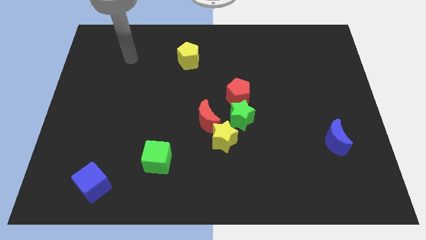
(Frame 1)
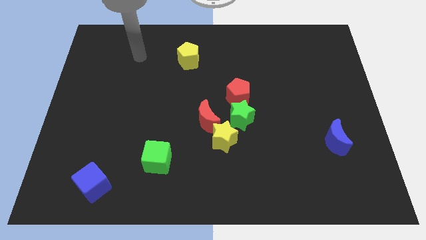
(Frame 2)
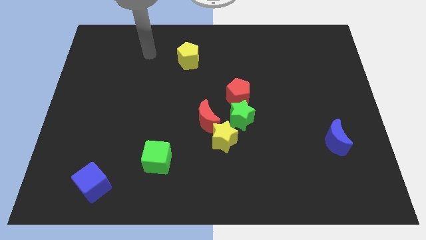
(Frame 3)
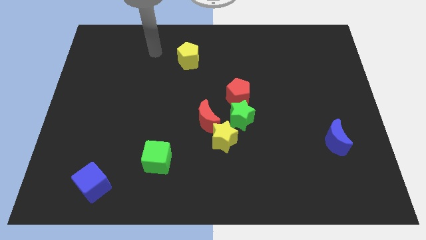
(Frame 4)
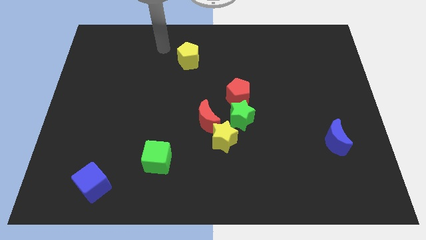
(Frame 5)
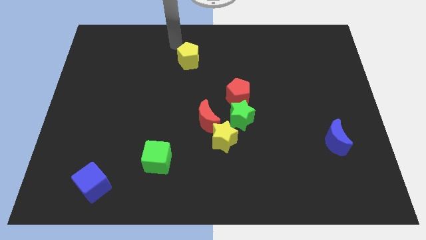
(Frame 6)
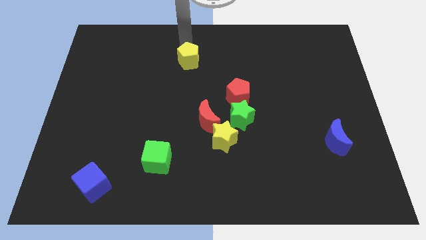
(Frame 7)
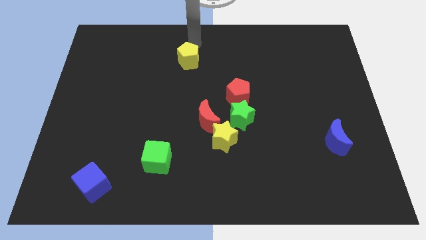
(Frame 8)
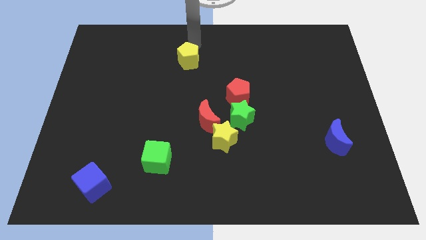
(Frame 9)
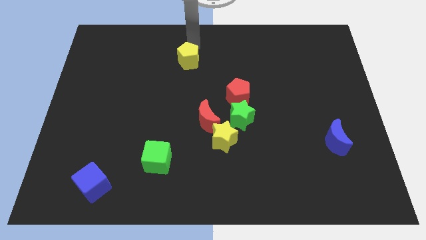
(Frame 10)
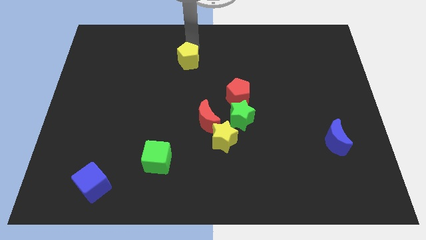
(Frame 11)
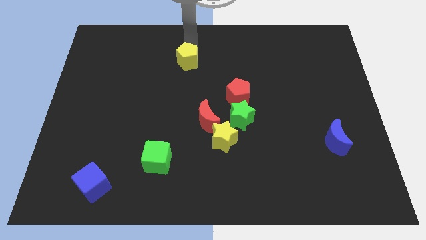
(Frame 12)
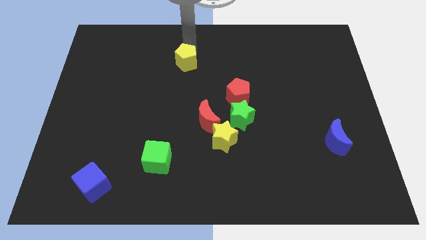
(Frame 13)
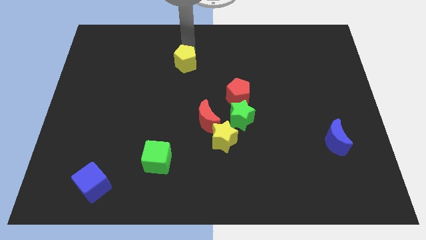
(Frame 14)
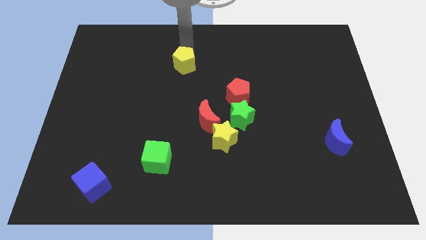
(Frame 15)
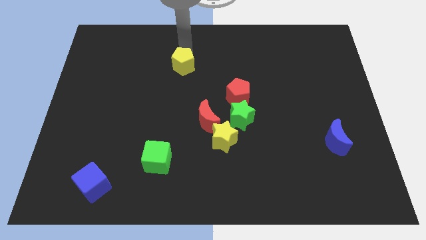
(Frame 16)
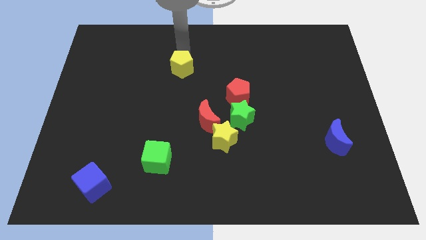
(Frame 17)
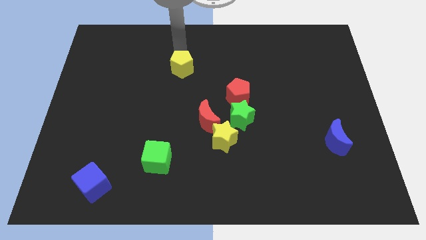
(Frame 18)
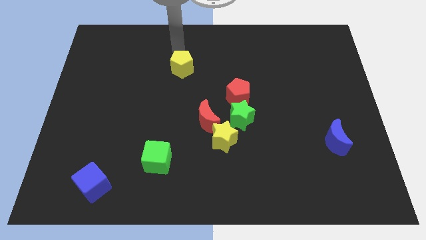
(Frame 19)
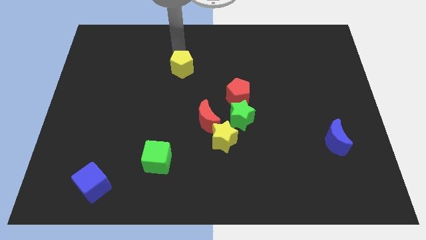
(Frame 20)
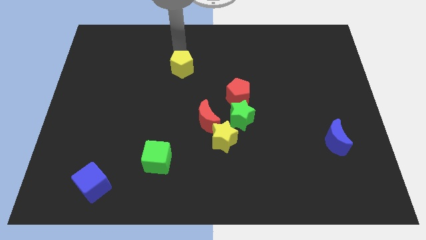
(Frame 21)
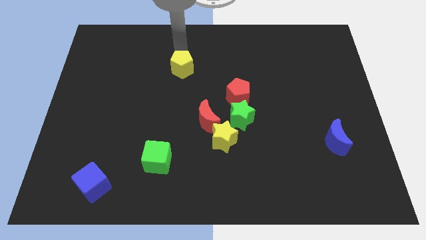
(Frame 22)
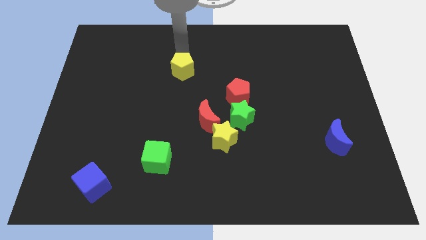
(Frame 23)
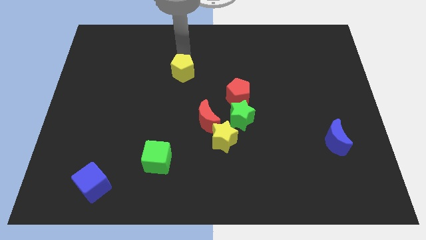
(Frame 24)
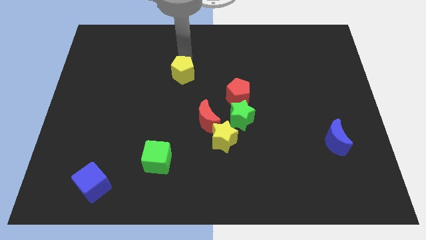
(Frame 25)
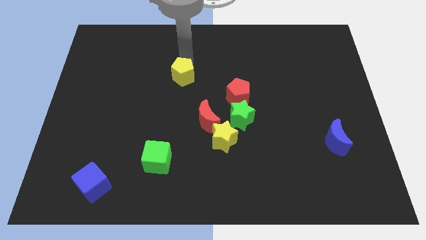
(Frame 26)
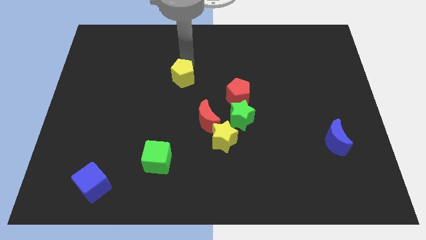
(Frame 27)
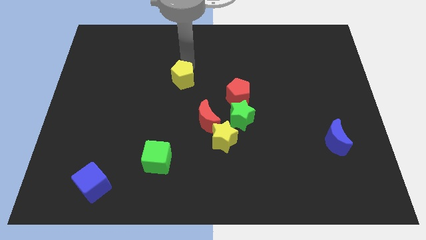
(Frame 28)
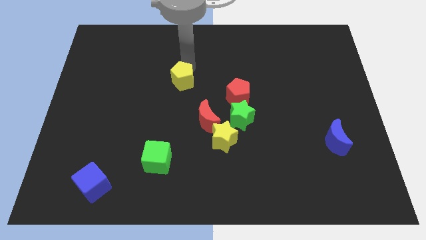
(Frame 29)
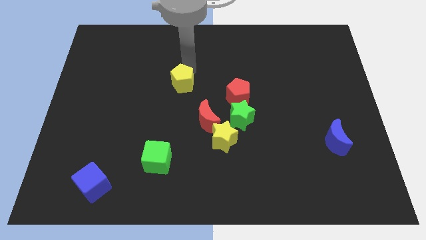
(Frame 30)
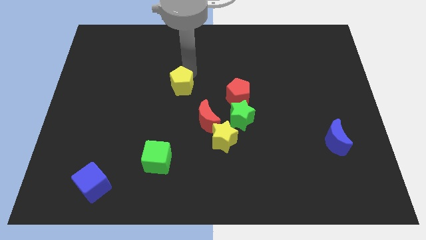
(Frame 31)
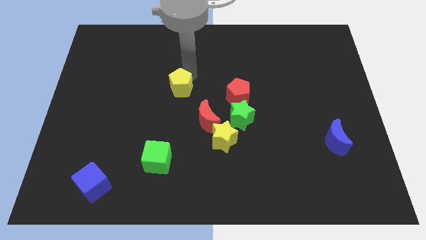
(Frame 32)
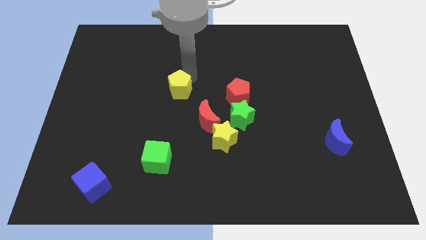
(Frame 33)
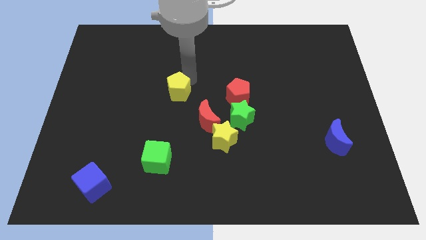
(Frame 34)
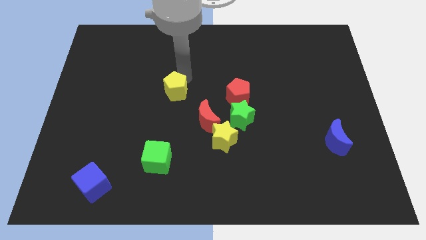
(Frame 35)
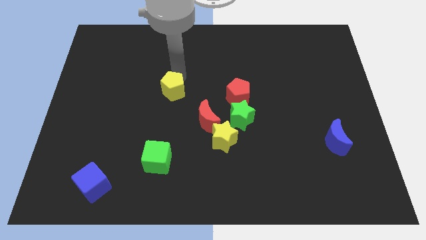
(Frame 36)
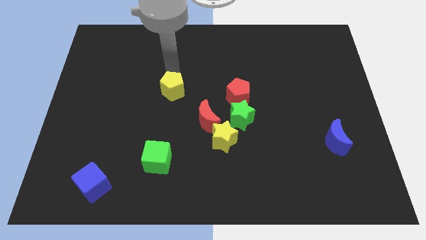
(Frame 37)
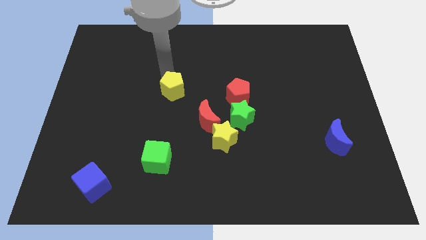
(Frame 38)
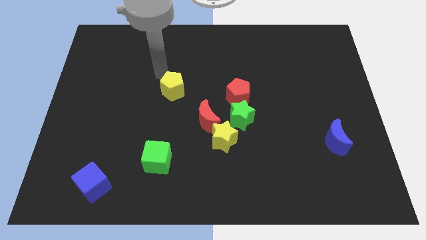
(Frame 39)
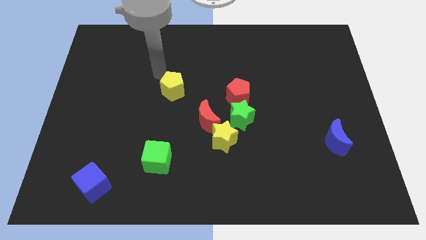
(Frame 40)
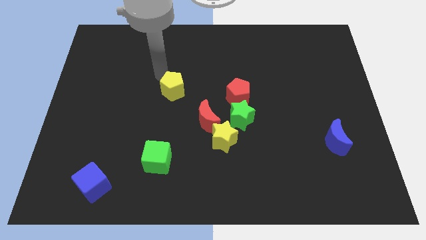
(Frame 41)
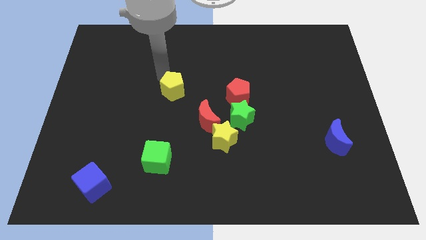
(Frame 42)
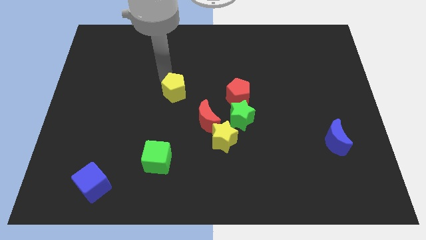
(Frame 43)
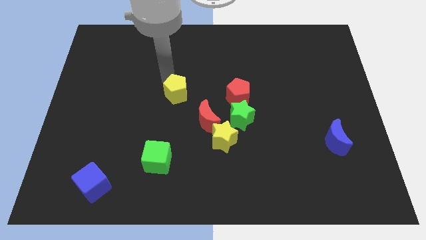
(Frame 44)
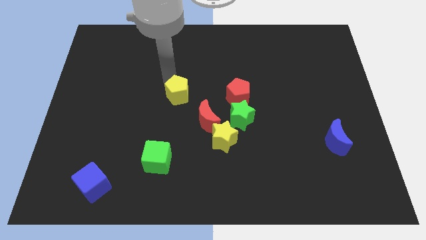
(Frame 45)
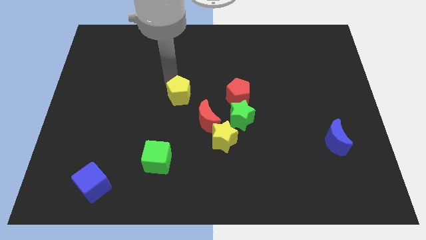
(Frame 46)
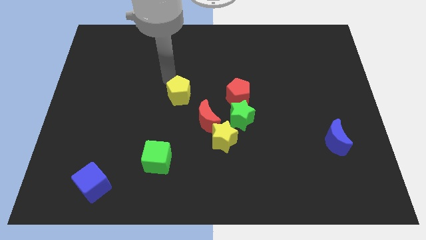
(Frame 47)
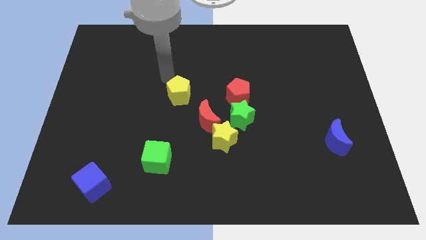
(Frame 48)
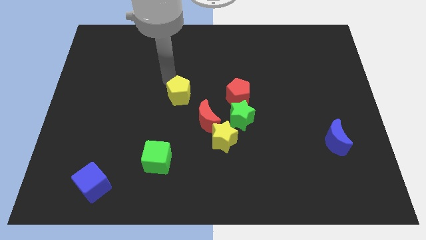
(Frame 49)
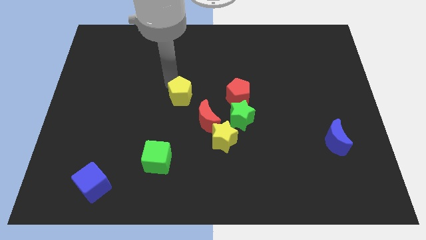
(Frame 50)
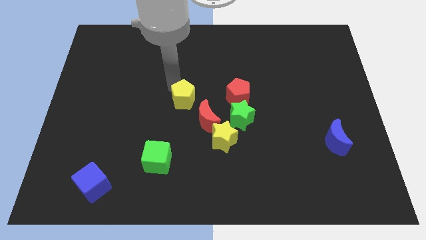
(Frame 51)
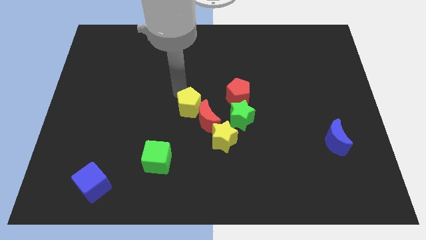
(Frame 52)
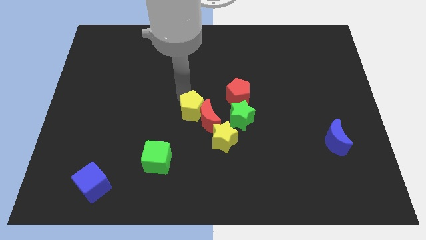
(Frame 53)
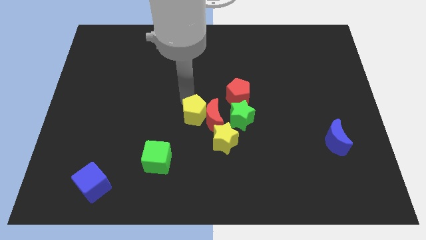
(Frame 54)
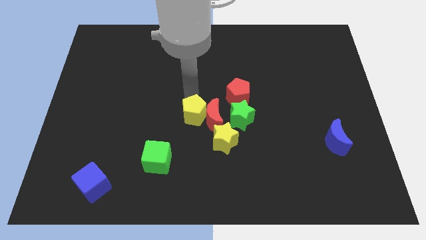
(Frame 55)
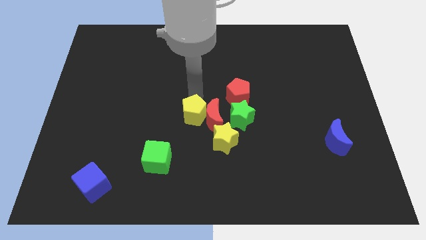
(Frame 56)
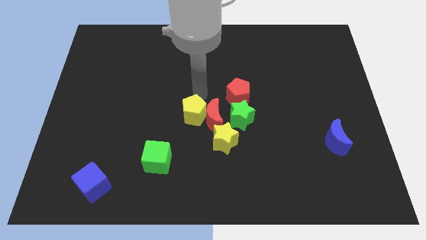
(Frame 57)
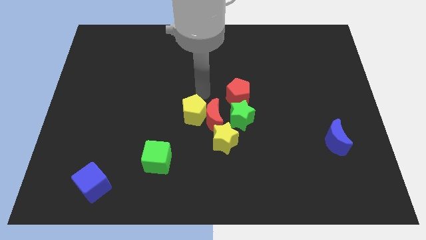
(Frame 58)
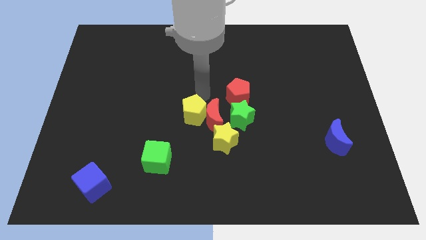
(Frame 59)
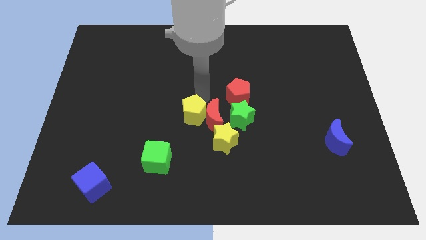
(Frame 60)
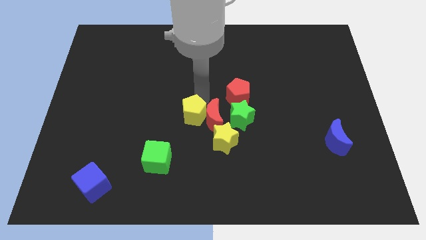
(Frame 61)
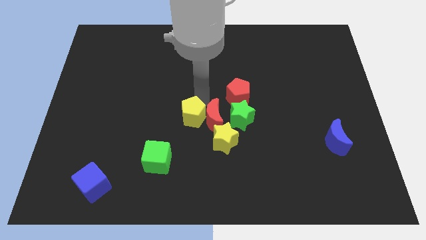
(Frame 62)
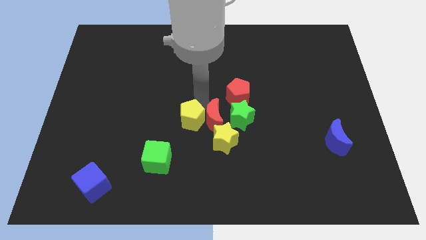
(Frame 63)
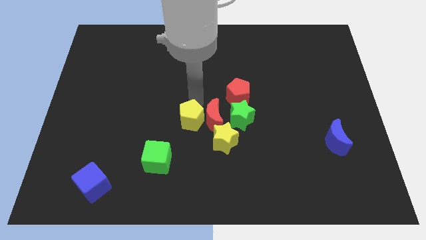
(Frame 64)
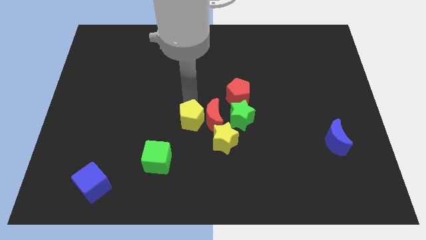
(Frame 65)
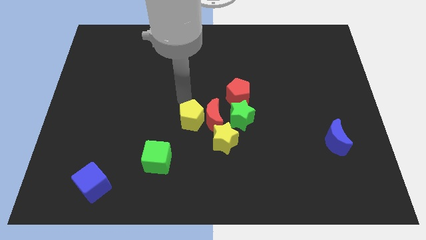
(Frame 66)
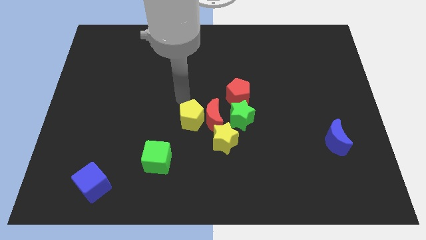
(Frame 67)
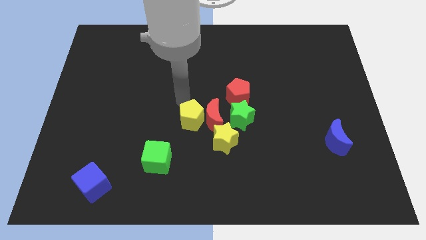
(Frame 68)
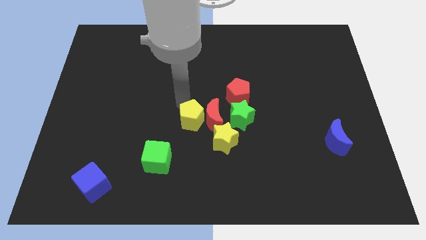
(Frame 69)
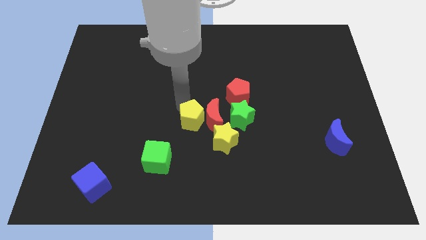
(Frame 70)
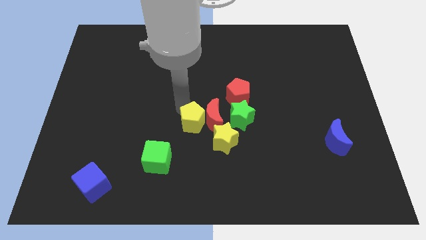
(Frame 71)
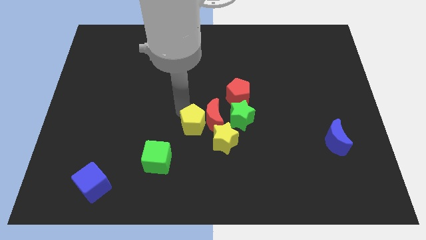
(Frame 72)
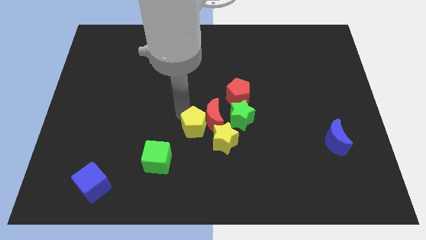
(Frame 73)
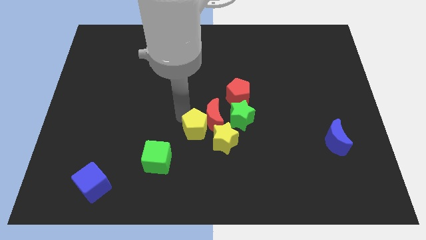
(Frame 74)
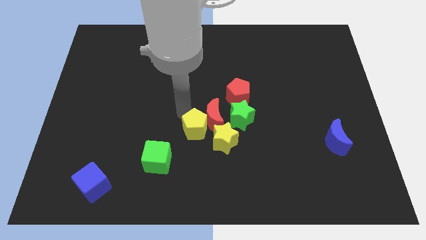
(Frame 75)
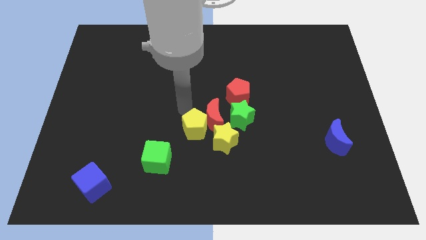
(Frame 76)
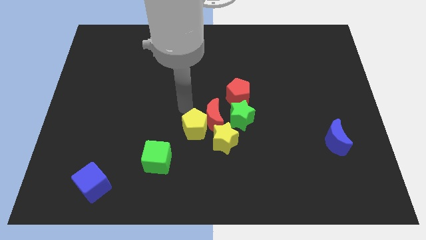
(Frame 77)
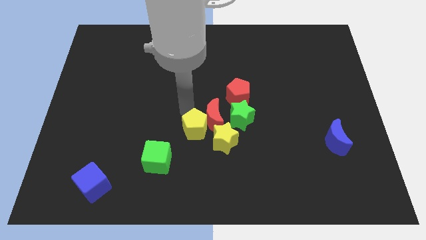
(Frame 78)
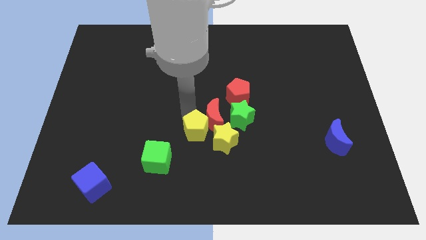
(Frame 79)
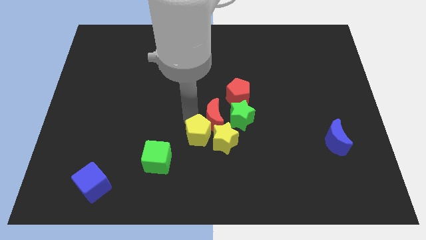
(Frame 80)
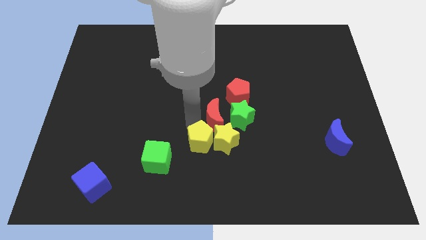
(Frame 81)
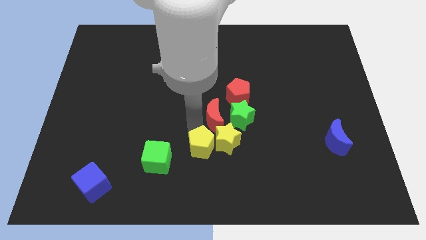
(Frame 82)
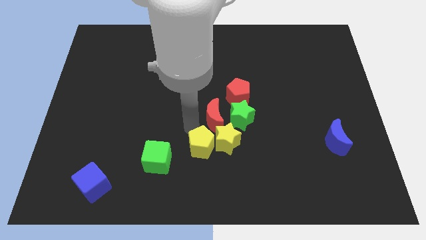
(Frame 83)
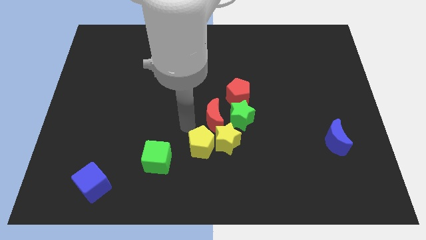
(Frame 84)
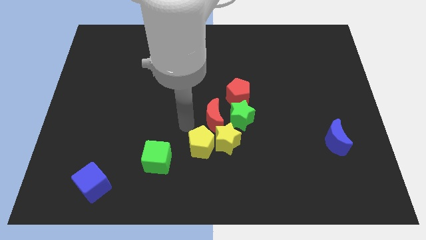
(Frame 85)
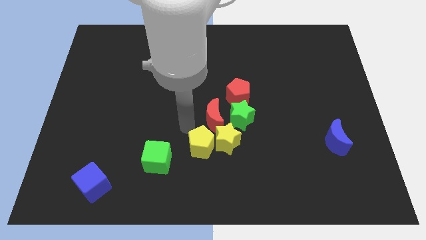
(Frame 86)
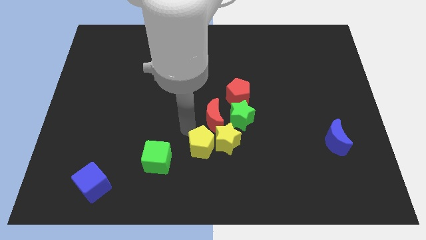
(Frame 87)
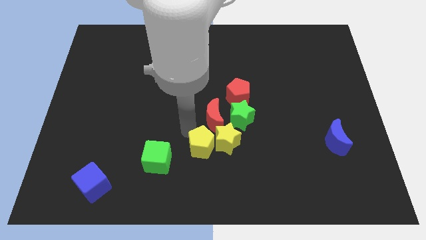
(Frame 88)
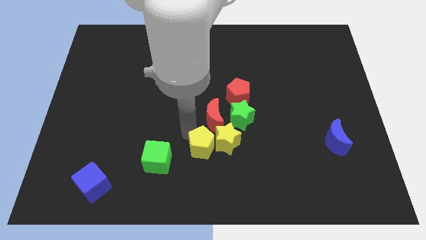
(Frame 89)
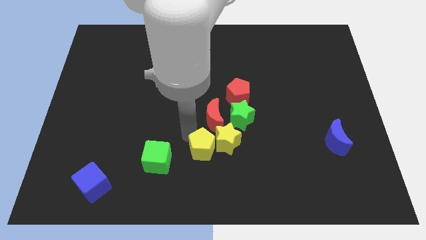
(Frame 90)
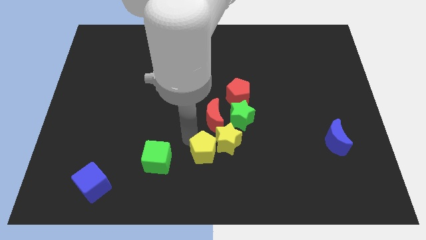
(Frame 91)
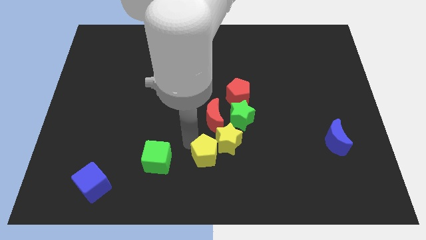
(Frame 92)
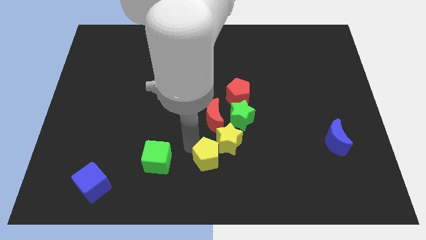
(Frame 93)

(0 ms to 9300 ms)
put the yellow pentagon below the yellow star
